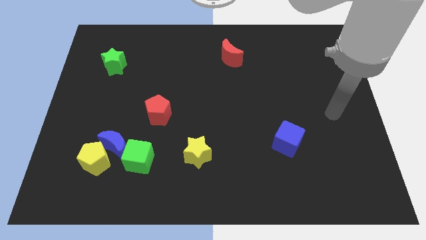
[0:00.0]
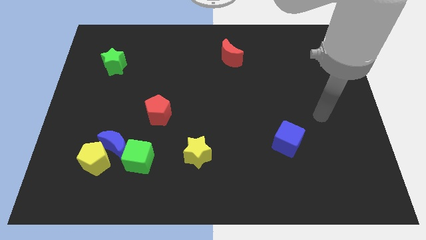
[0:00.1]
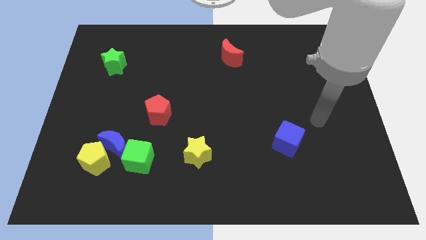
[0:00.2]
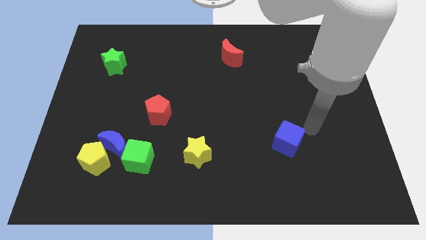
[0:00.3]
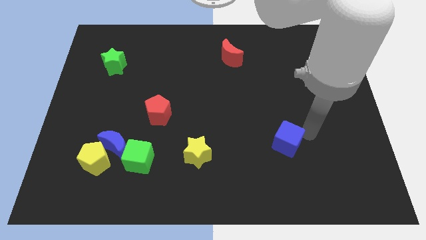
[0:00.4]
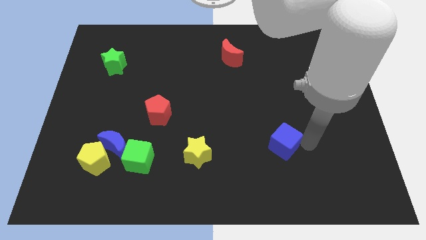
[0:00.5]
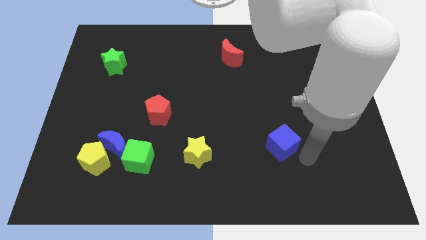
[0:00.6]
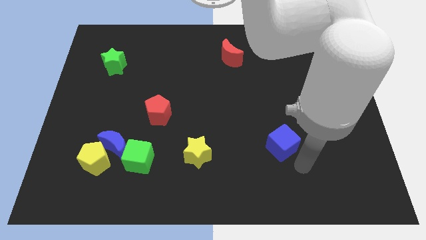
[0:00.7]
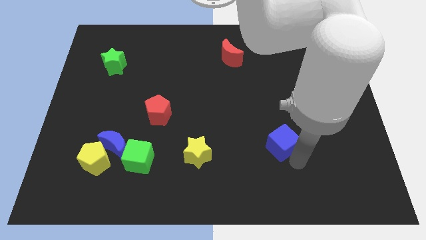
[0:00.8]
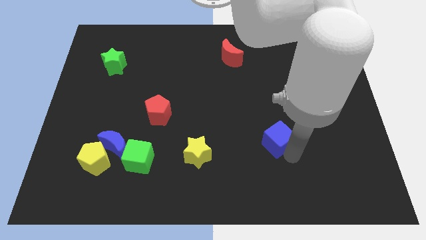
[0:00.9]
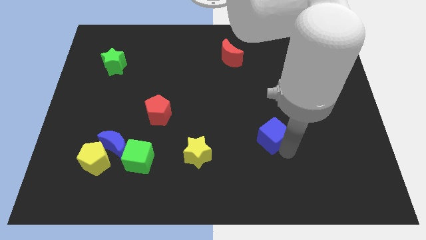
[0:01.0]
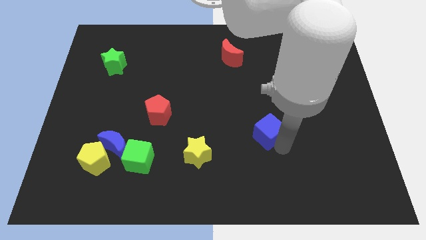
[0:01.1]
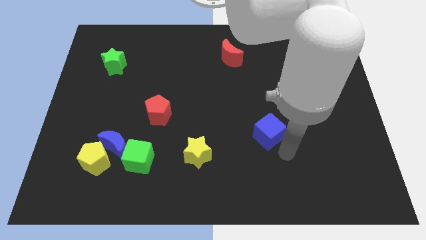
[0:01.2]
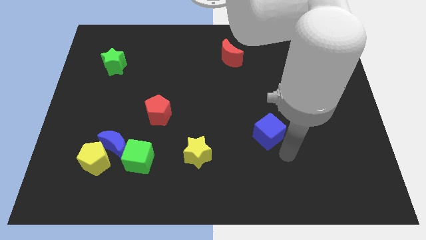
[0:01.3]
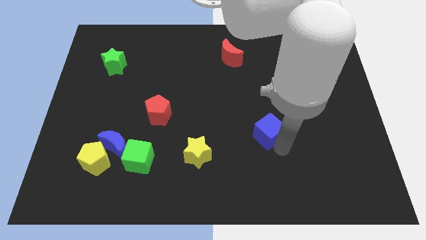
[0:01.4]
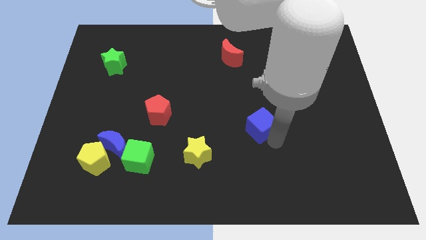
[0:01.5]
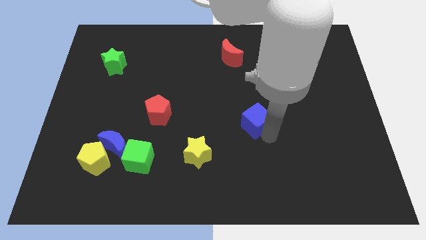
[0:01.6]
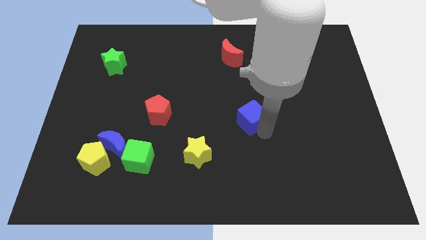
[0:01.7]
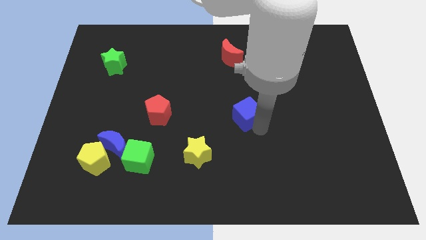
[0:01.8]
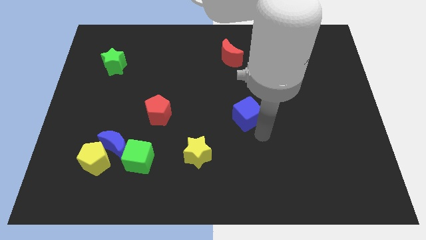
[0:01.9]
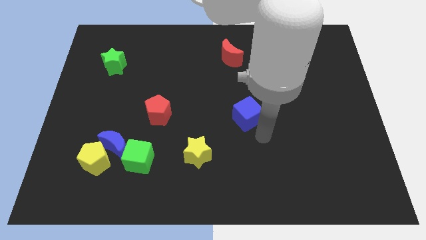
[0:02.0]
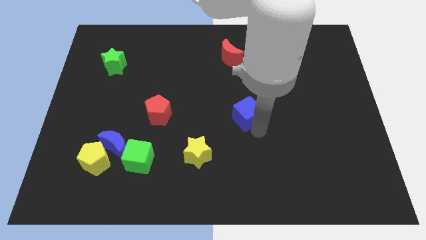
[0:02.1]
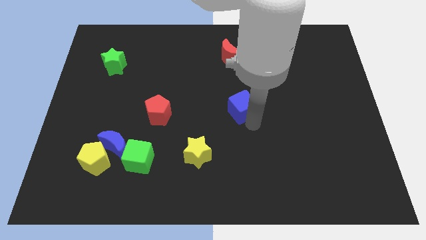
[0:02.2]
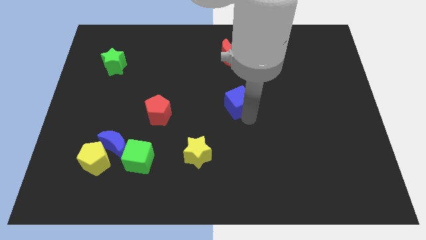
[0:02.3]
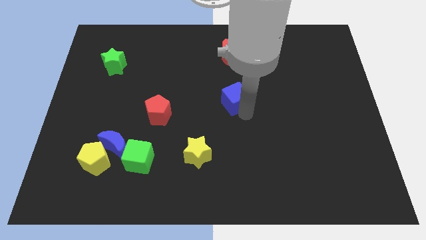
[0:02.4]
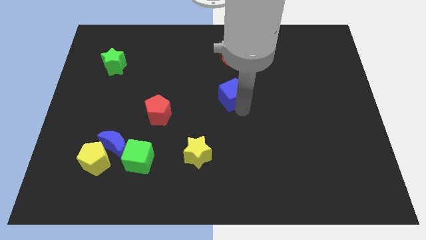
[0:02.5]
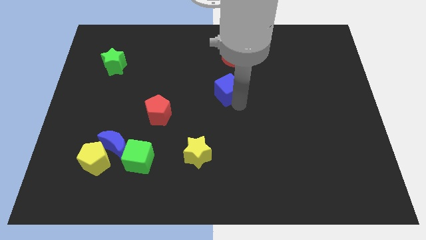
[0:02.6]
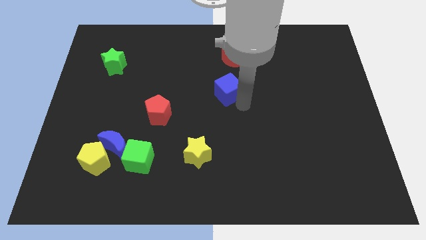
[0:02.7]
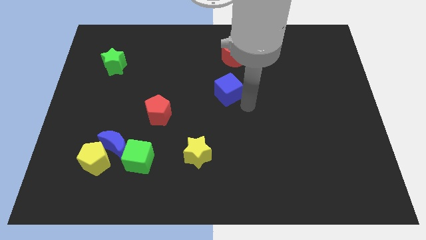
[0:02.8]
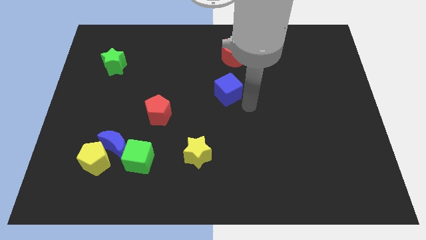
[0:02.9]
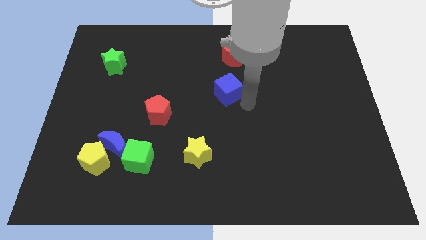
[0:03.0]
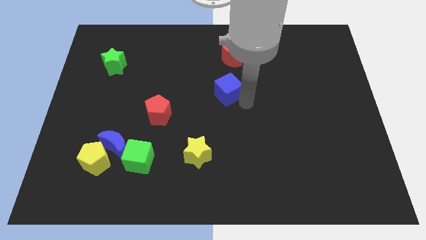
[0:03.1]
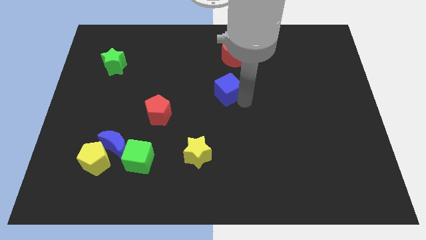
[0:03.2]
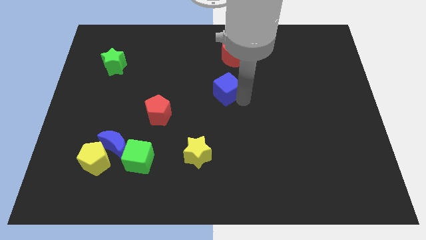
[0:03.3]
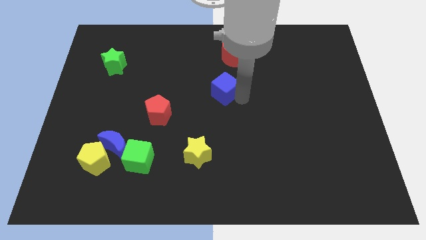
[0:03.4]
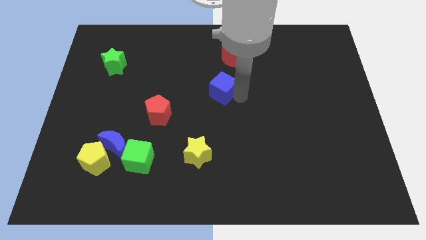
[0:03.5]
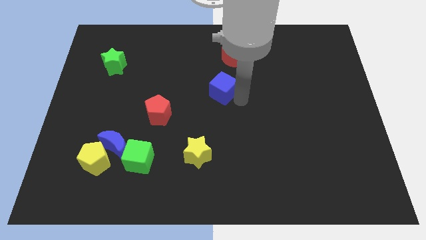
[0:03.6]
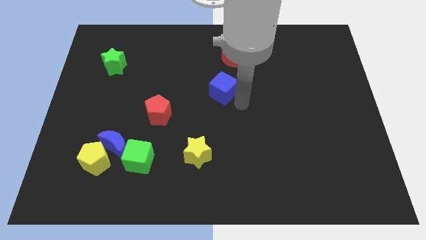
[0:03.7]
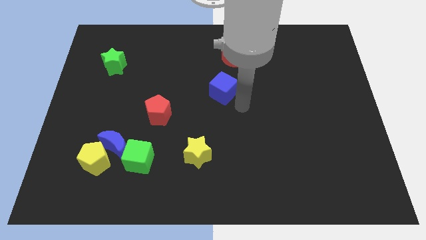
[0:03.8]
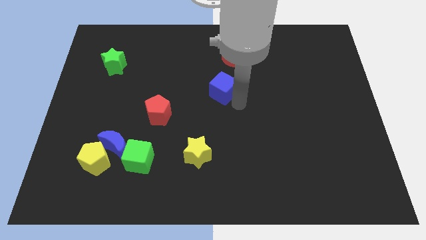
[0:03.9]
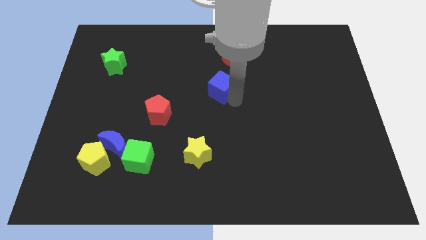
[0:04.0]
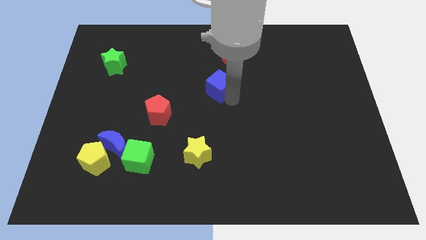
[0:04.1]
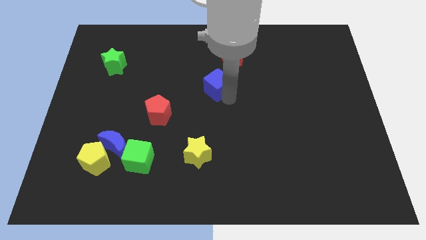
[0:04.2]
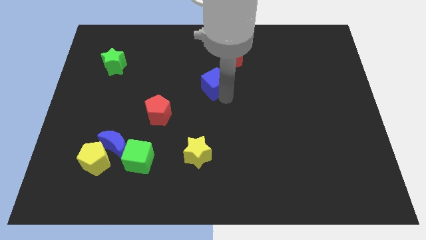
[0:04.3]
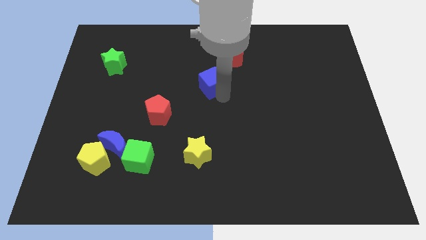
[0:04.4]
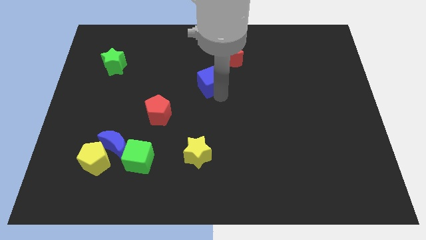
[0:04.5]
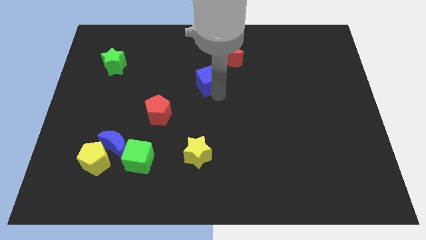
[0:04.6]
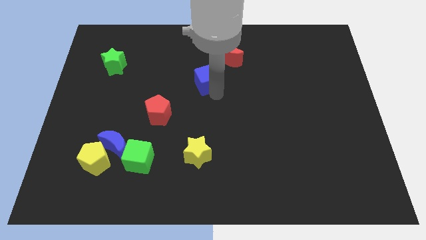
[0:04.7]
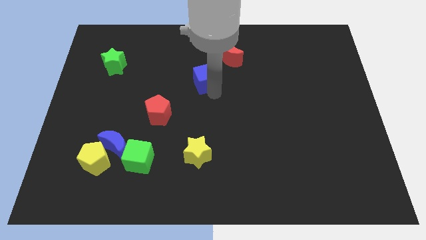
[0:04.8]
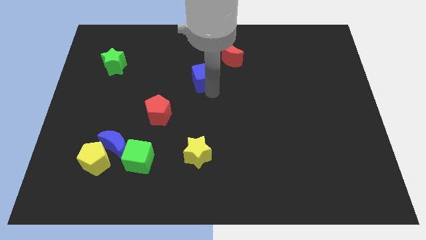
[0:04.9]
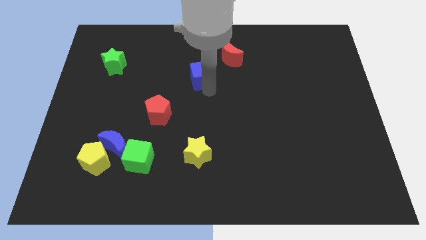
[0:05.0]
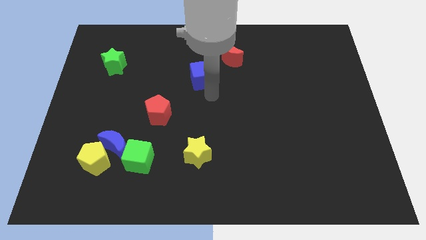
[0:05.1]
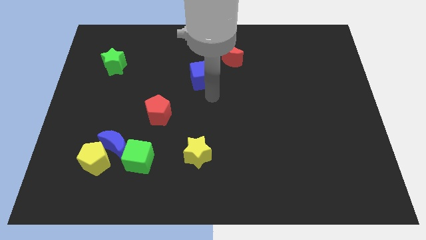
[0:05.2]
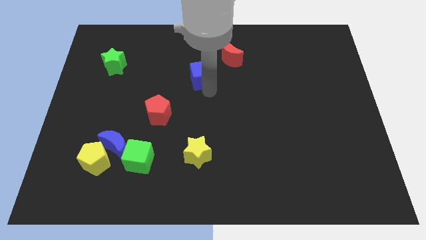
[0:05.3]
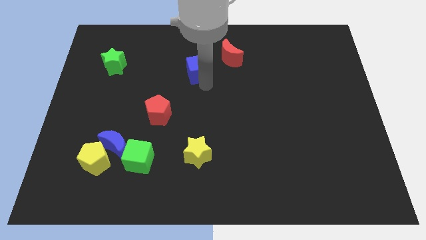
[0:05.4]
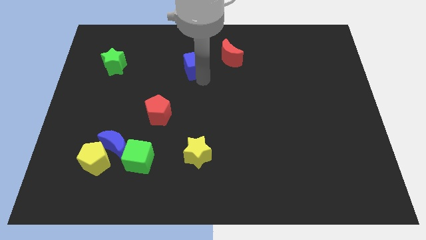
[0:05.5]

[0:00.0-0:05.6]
put the blue cube to the left side of the red moon

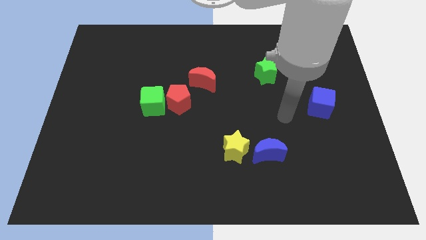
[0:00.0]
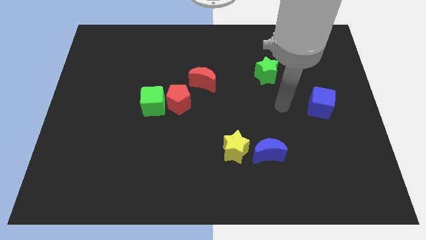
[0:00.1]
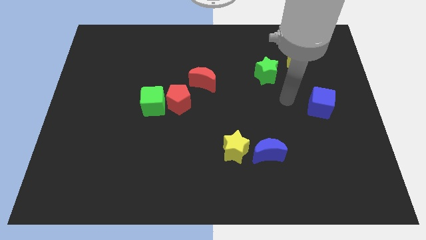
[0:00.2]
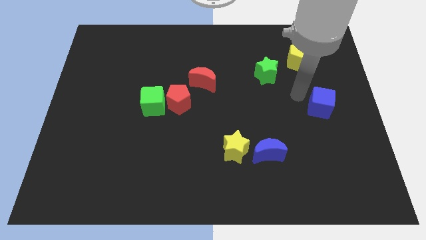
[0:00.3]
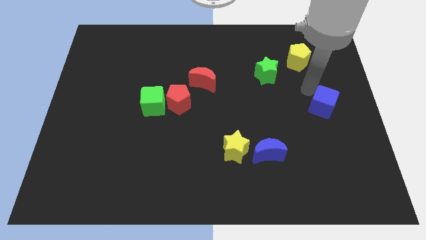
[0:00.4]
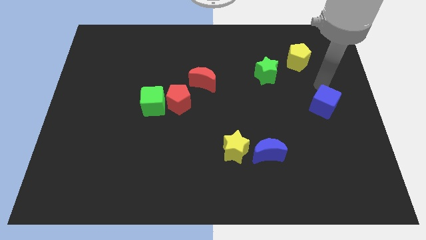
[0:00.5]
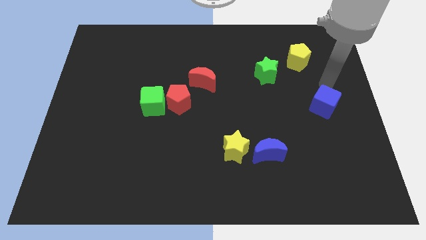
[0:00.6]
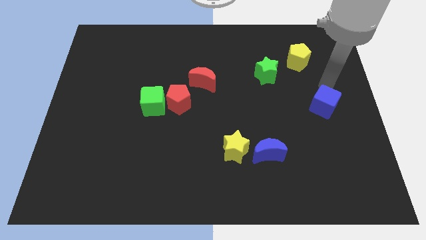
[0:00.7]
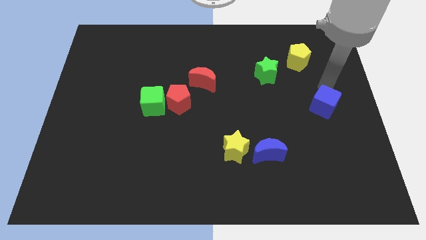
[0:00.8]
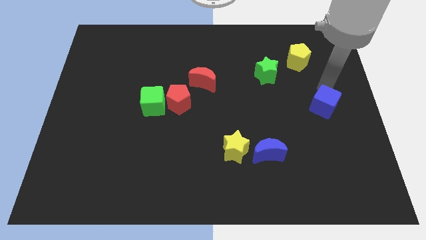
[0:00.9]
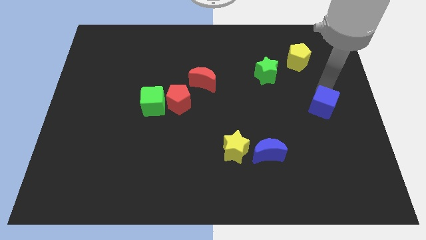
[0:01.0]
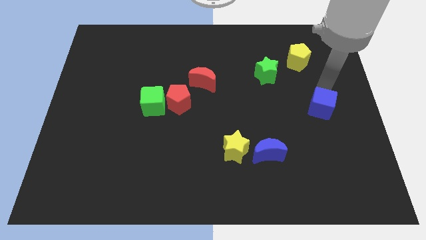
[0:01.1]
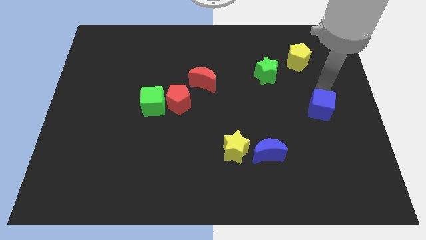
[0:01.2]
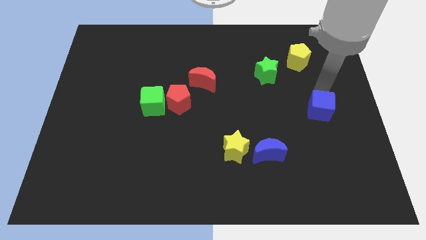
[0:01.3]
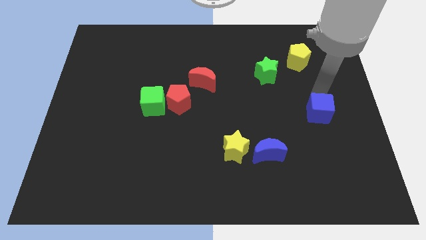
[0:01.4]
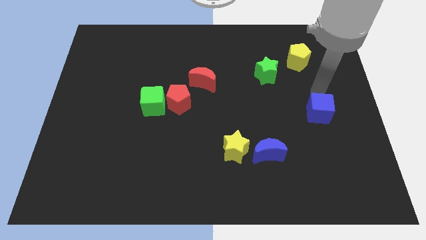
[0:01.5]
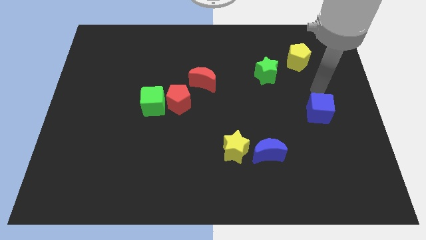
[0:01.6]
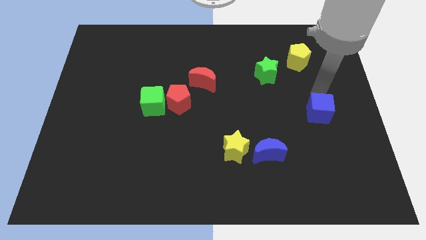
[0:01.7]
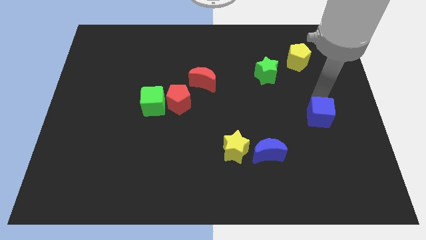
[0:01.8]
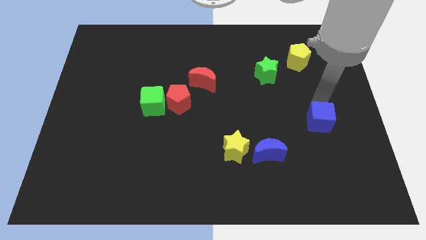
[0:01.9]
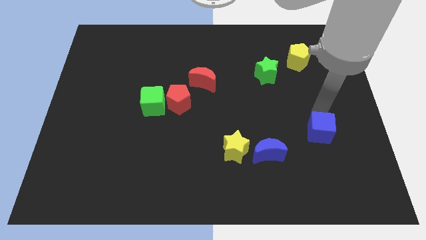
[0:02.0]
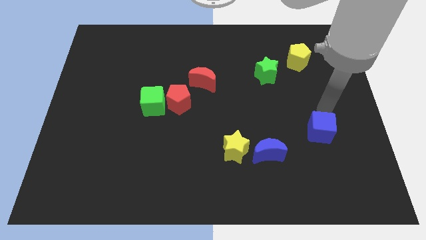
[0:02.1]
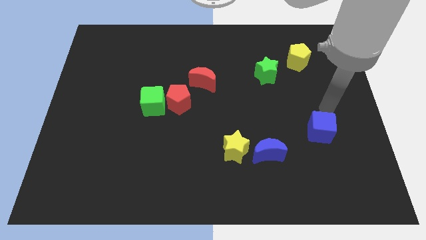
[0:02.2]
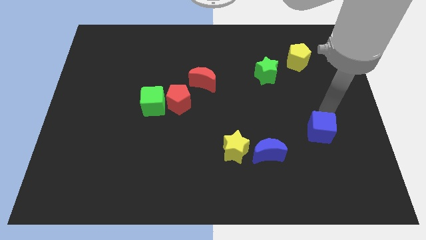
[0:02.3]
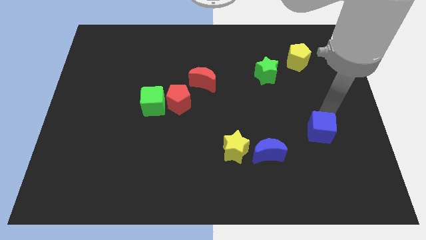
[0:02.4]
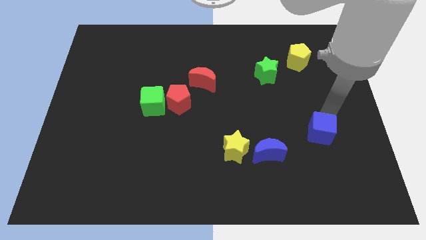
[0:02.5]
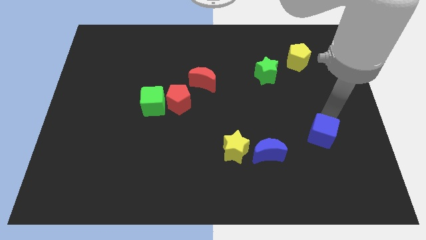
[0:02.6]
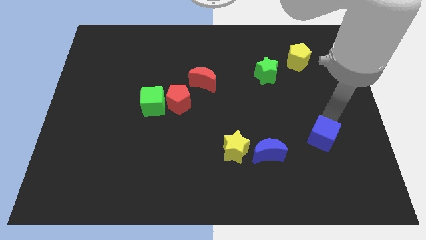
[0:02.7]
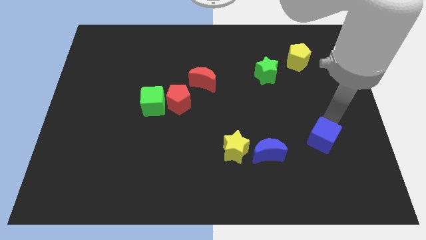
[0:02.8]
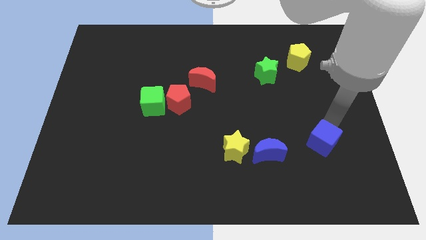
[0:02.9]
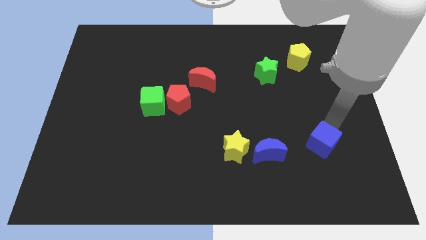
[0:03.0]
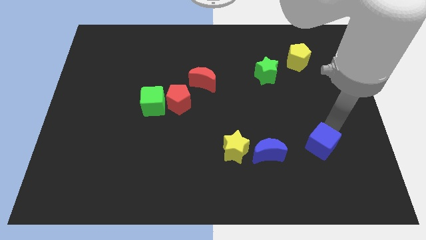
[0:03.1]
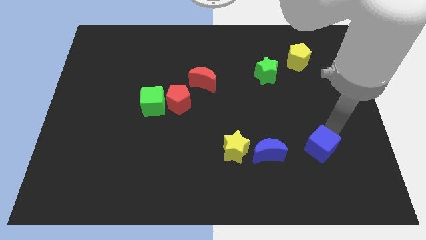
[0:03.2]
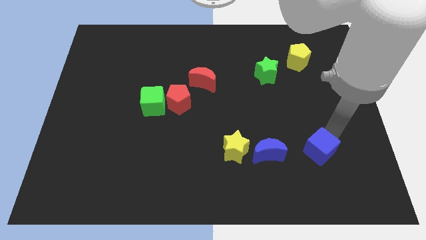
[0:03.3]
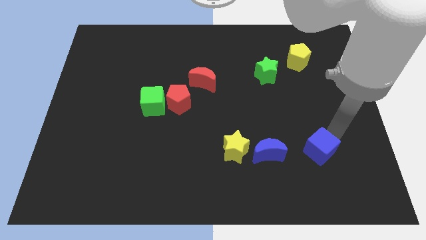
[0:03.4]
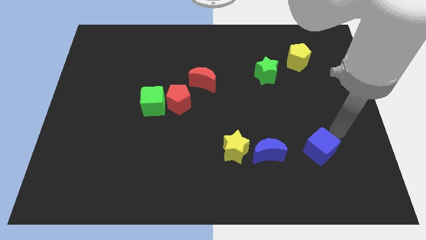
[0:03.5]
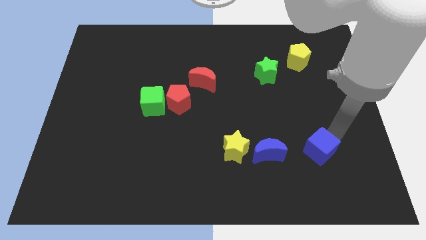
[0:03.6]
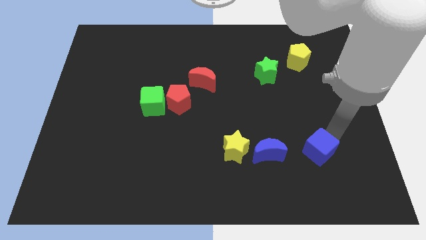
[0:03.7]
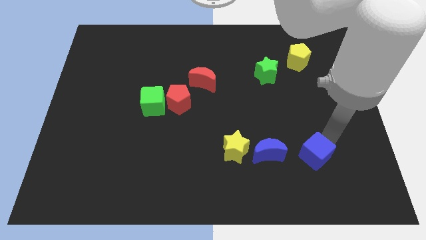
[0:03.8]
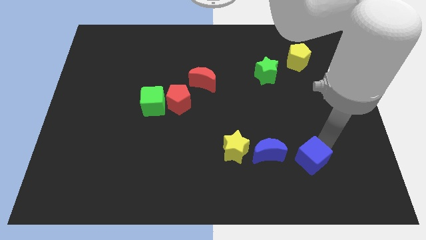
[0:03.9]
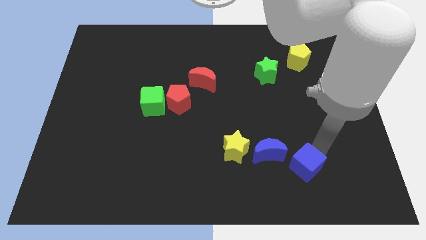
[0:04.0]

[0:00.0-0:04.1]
put the blue cube to the bottom right side of the blue moon
